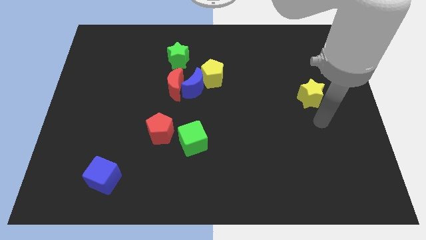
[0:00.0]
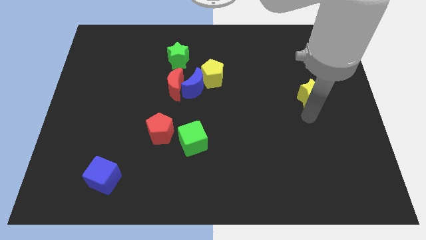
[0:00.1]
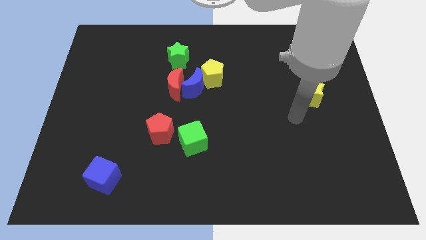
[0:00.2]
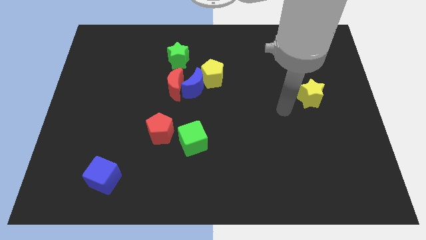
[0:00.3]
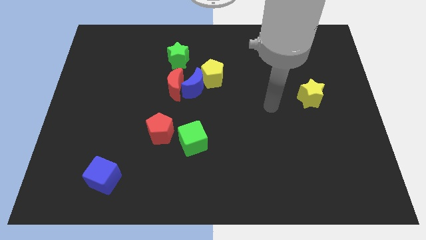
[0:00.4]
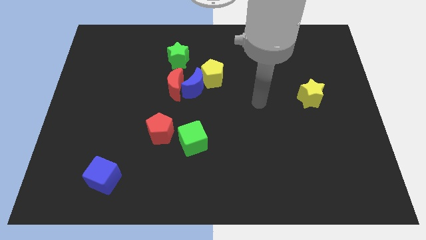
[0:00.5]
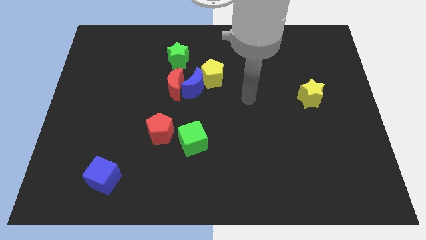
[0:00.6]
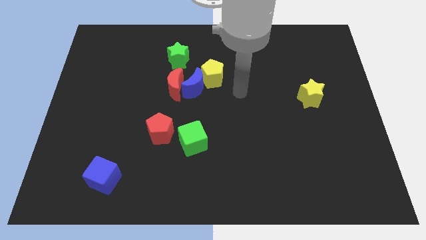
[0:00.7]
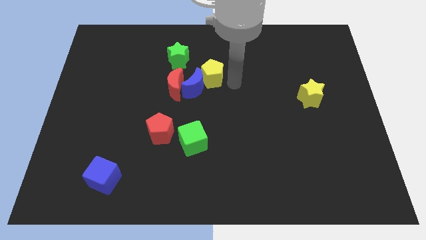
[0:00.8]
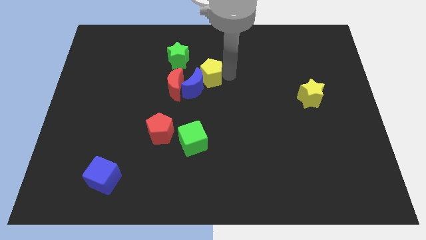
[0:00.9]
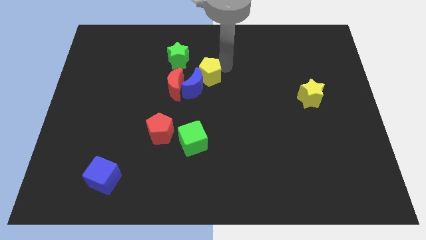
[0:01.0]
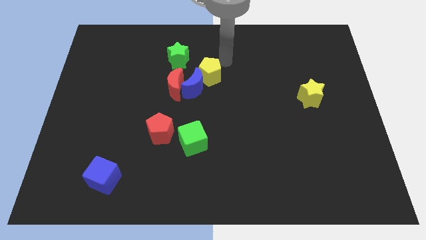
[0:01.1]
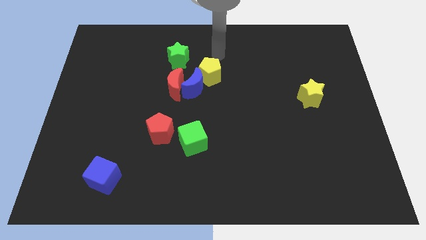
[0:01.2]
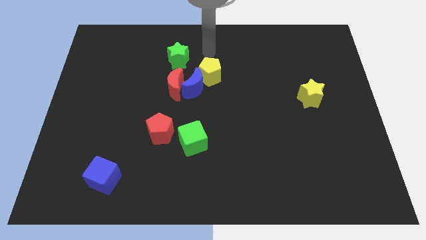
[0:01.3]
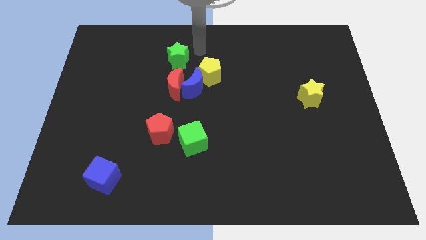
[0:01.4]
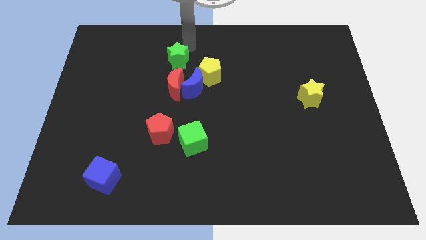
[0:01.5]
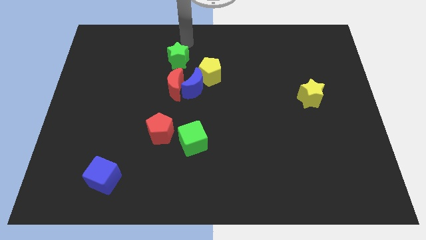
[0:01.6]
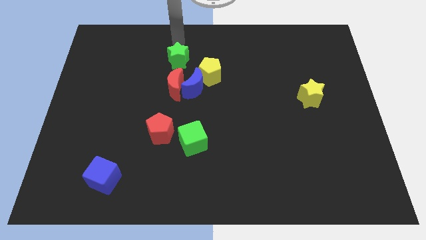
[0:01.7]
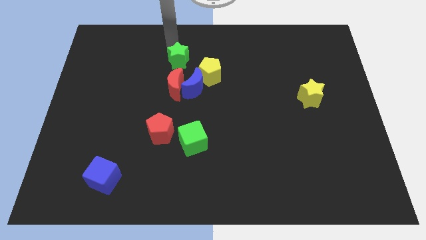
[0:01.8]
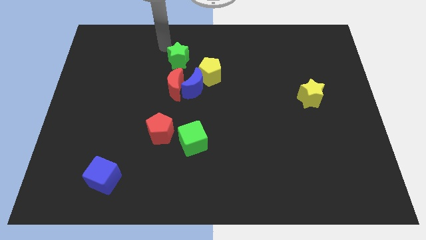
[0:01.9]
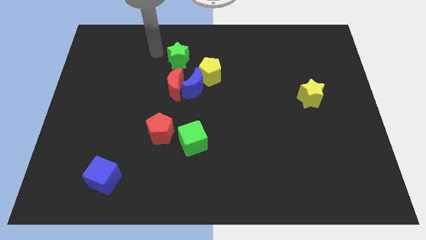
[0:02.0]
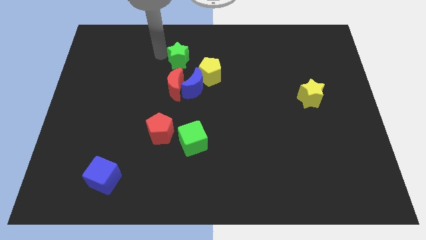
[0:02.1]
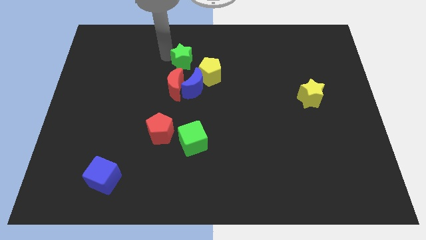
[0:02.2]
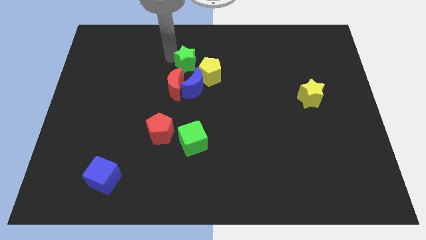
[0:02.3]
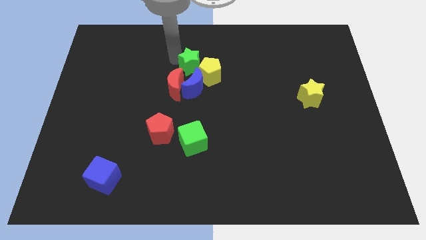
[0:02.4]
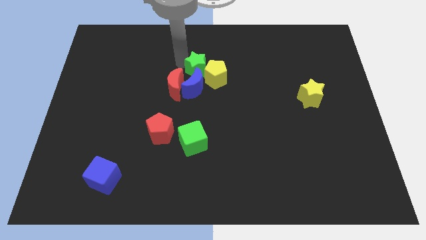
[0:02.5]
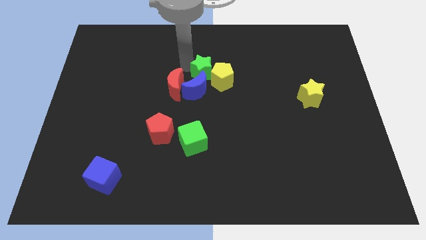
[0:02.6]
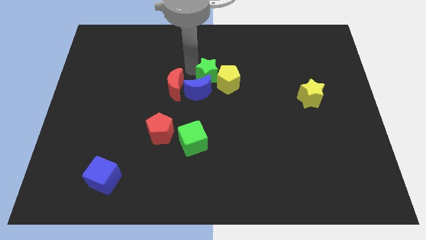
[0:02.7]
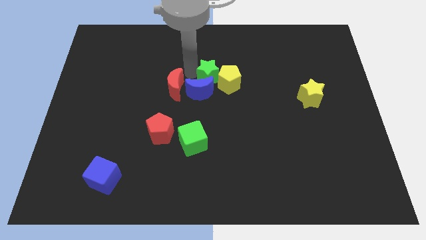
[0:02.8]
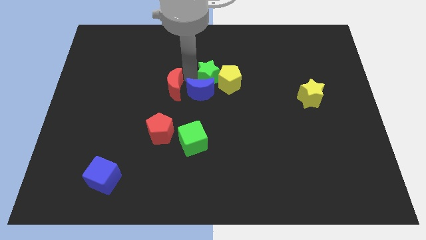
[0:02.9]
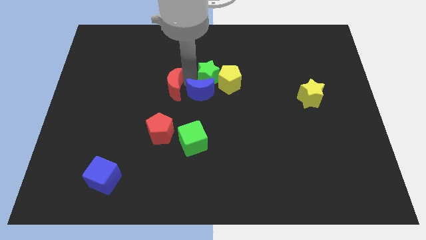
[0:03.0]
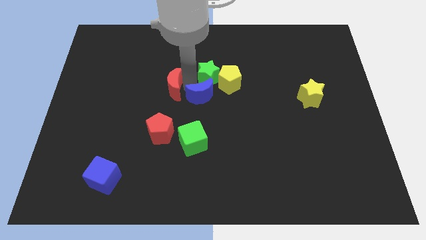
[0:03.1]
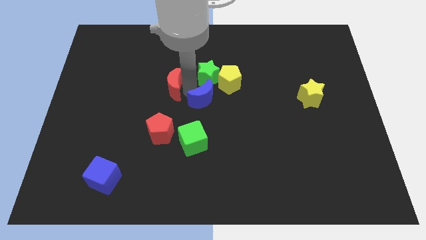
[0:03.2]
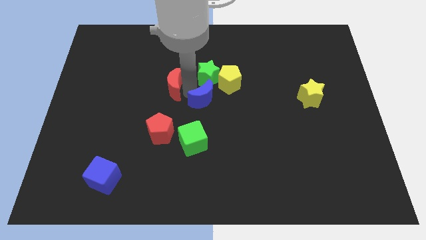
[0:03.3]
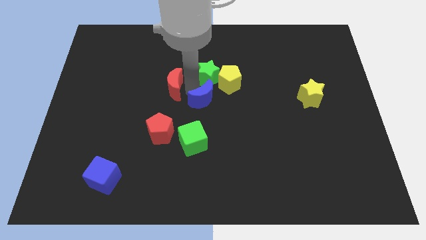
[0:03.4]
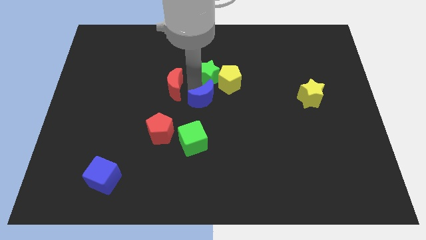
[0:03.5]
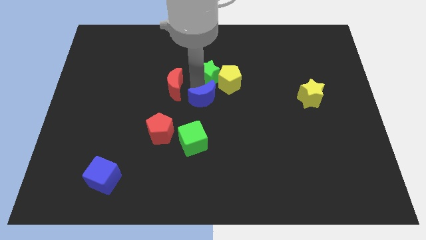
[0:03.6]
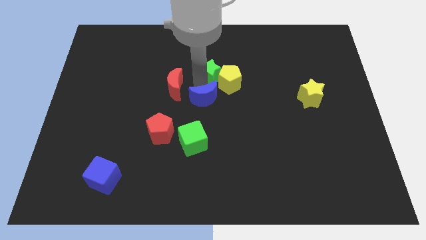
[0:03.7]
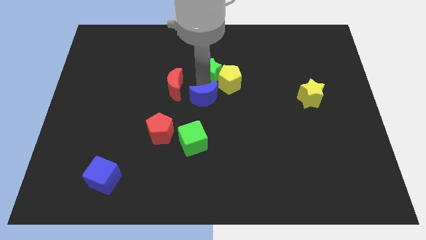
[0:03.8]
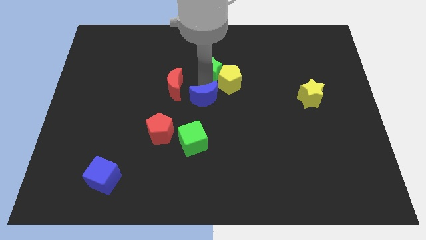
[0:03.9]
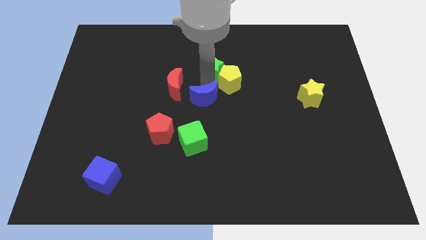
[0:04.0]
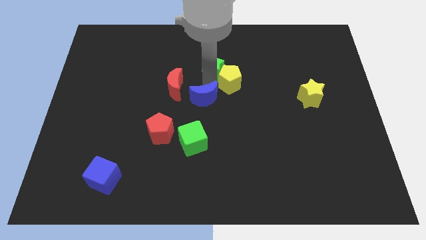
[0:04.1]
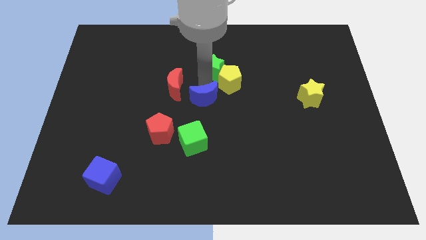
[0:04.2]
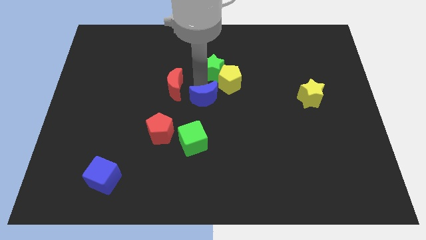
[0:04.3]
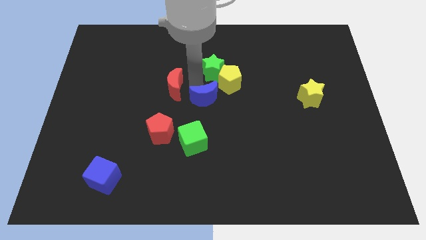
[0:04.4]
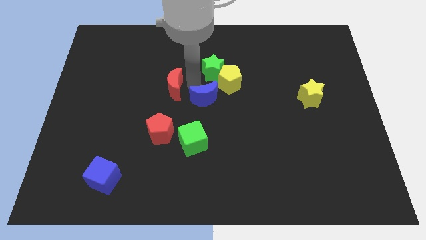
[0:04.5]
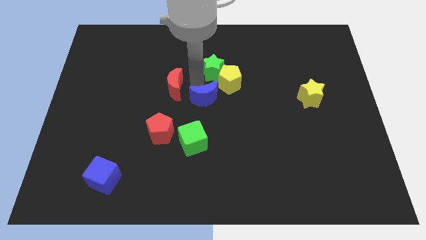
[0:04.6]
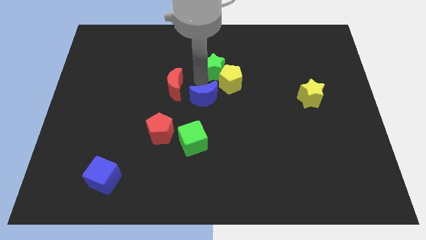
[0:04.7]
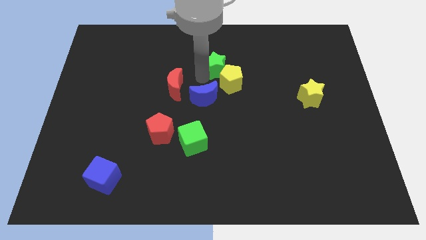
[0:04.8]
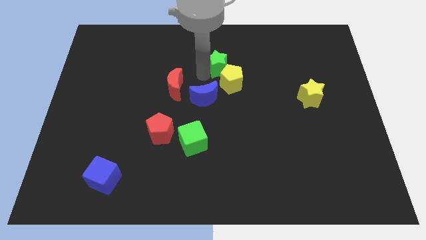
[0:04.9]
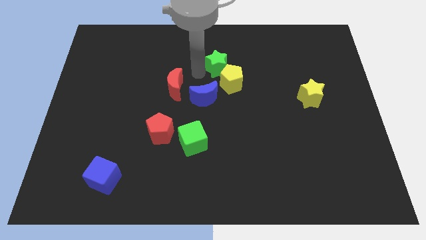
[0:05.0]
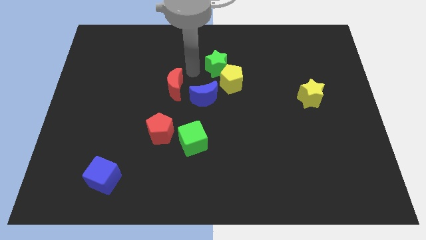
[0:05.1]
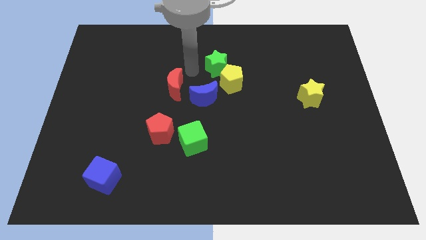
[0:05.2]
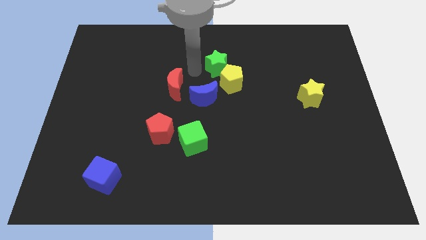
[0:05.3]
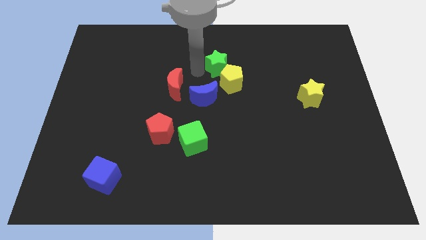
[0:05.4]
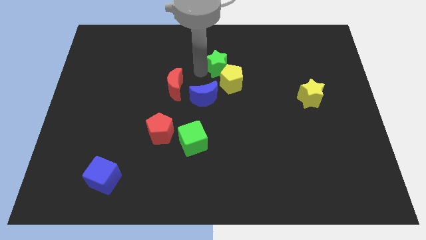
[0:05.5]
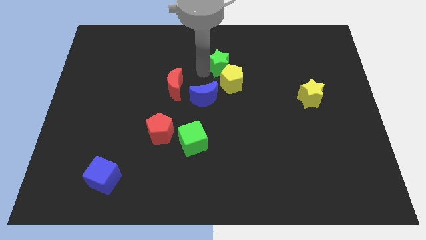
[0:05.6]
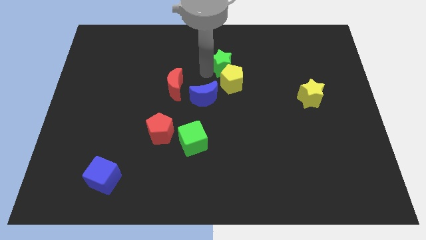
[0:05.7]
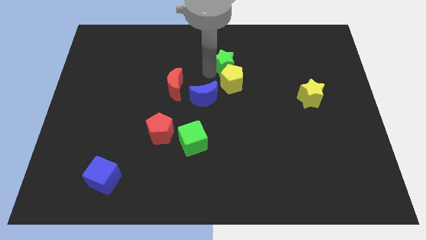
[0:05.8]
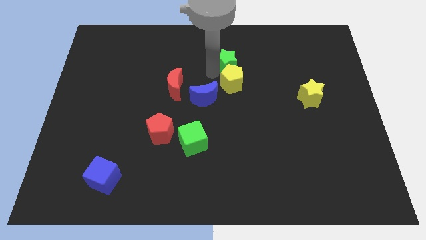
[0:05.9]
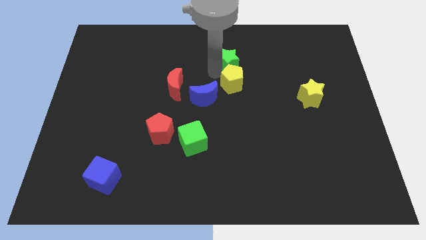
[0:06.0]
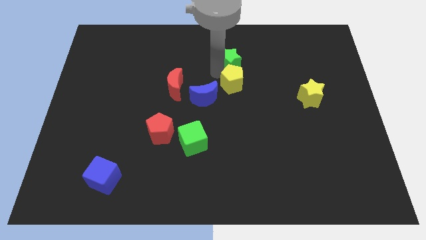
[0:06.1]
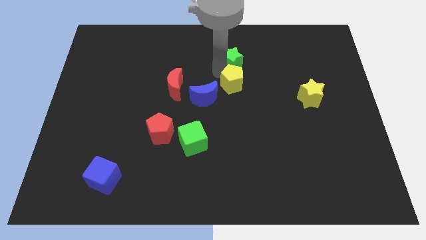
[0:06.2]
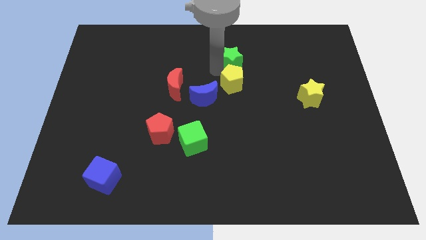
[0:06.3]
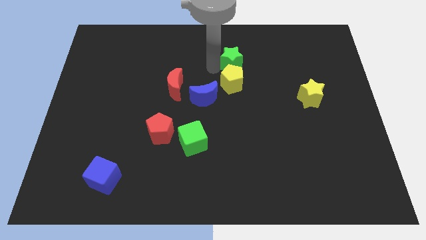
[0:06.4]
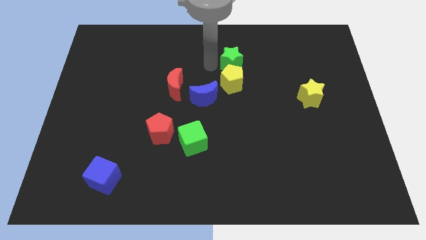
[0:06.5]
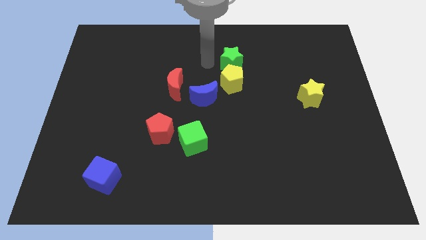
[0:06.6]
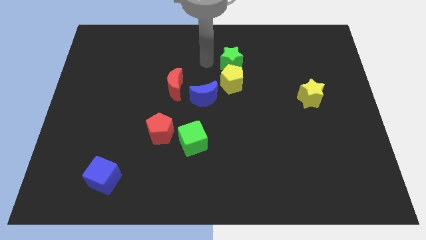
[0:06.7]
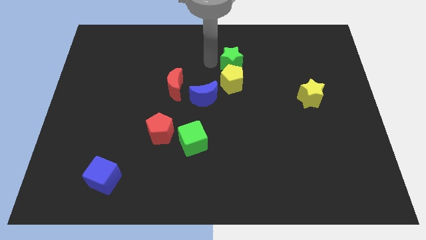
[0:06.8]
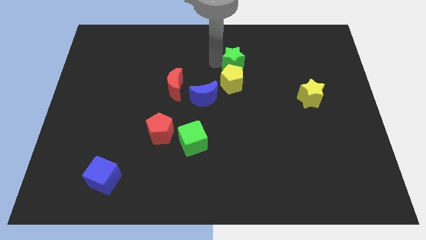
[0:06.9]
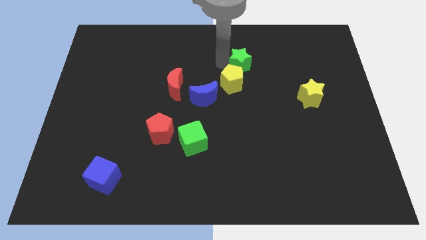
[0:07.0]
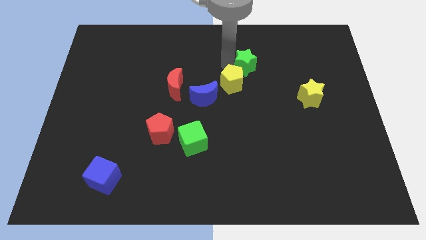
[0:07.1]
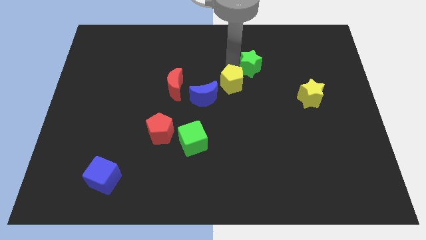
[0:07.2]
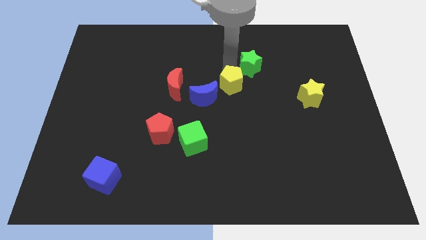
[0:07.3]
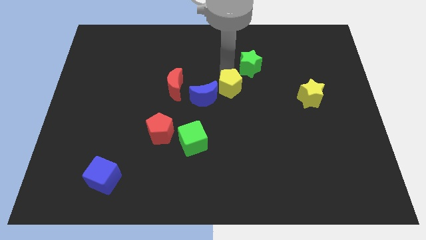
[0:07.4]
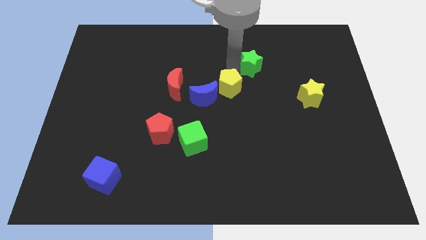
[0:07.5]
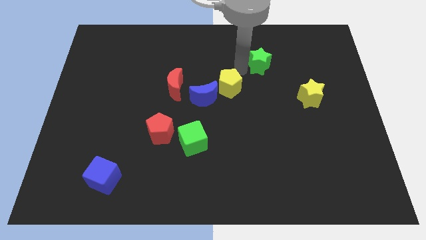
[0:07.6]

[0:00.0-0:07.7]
slide the green star right

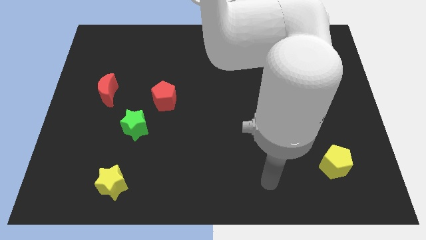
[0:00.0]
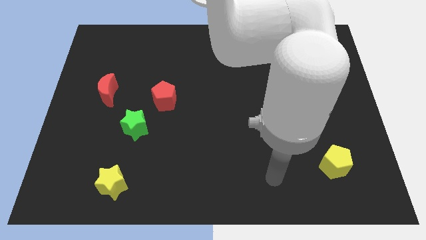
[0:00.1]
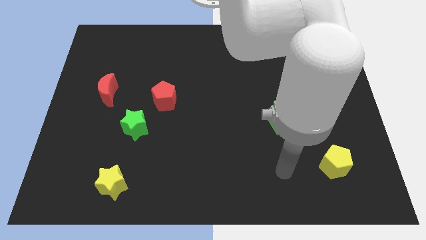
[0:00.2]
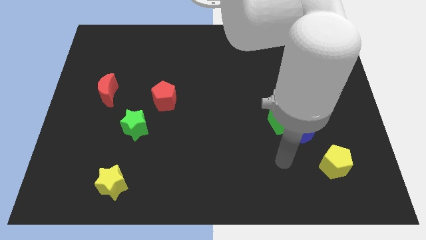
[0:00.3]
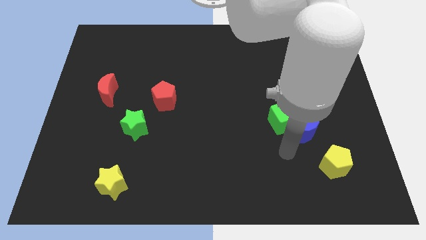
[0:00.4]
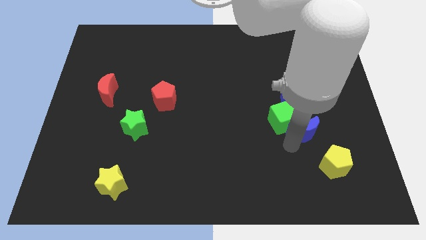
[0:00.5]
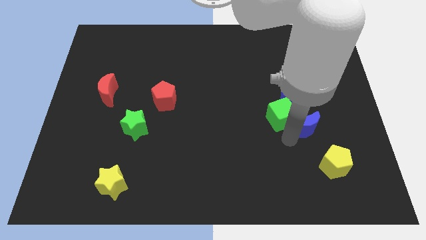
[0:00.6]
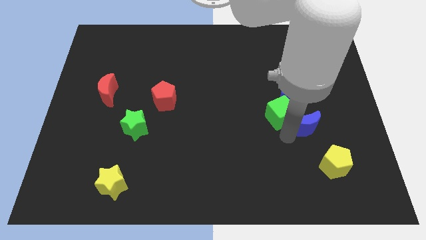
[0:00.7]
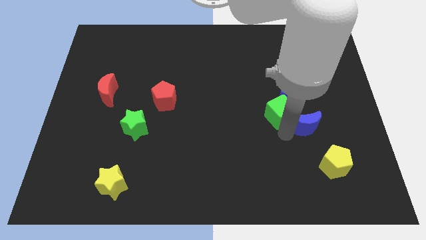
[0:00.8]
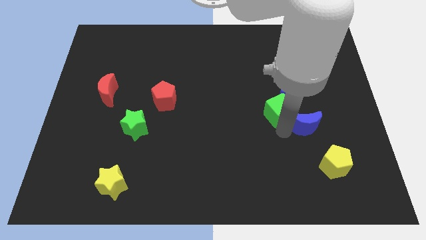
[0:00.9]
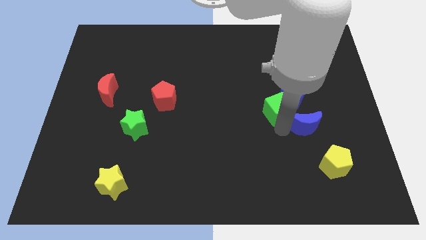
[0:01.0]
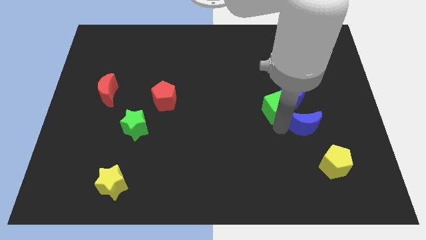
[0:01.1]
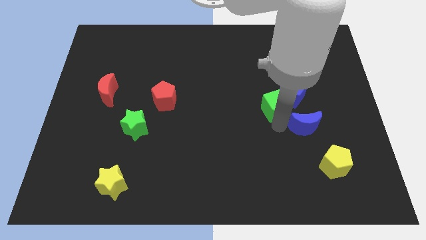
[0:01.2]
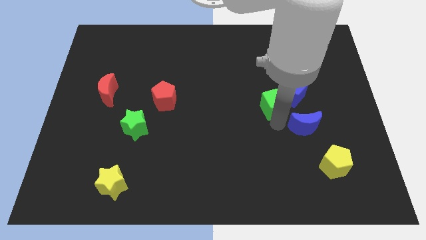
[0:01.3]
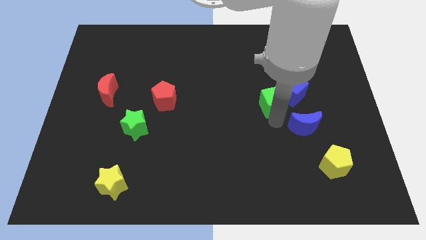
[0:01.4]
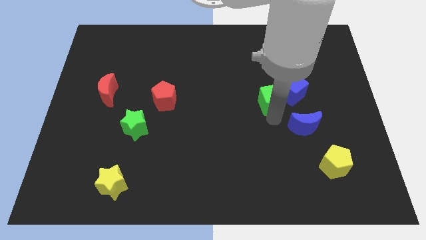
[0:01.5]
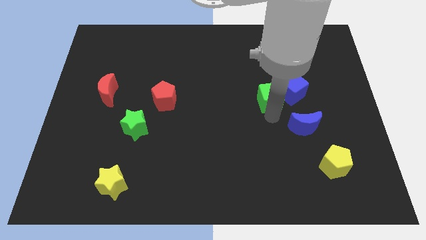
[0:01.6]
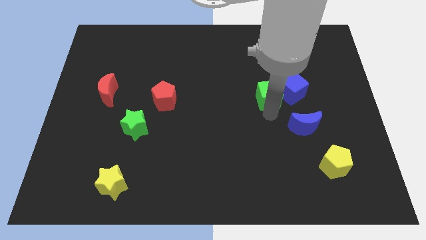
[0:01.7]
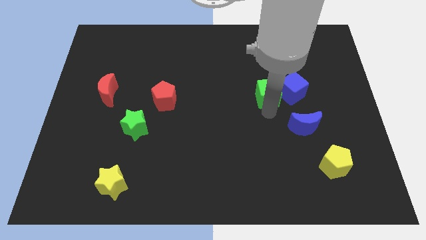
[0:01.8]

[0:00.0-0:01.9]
slide the green cube a bit up
